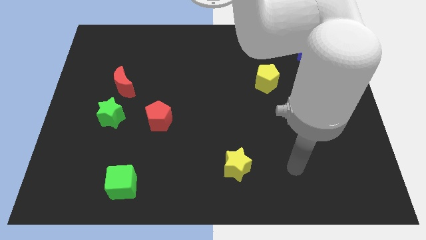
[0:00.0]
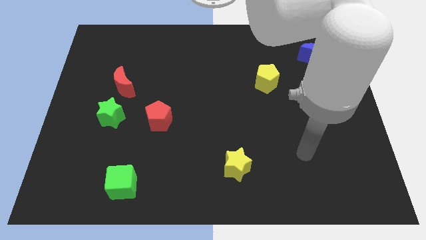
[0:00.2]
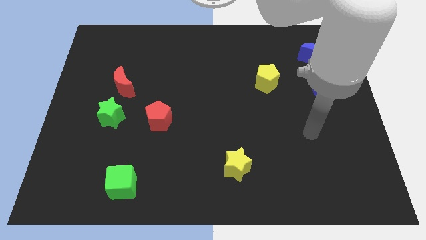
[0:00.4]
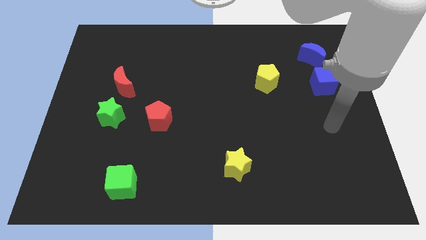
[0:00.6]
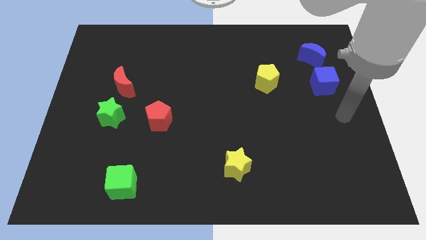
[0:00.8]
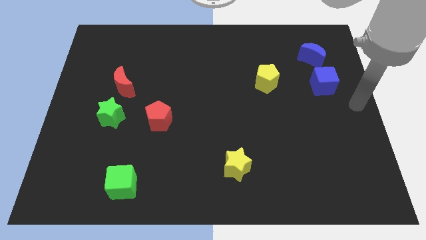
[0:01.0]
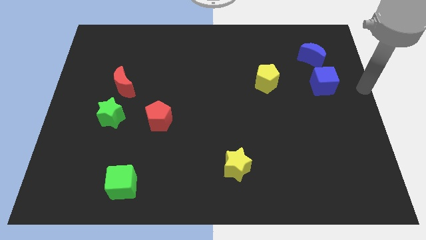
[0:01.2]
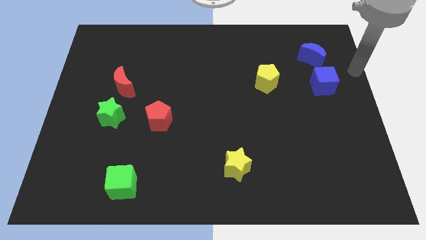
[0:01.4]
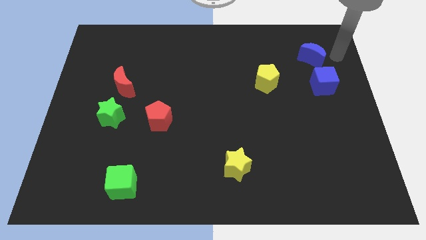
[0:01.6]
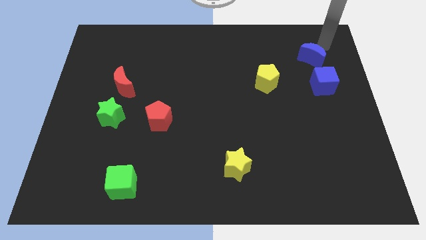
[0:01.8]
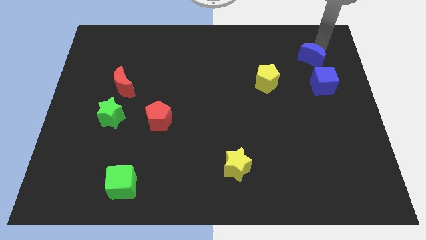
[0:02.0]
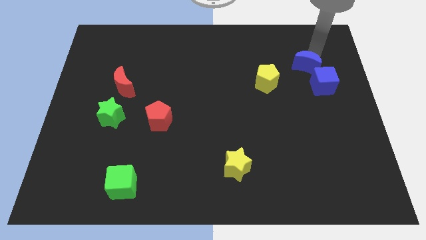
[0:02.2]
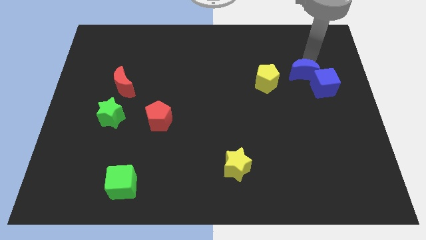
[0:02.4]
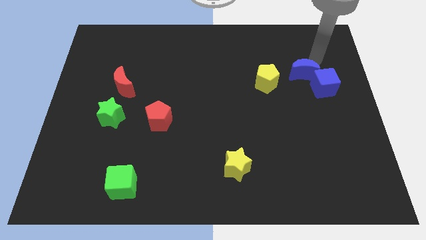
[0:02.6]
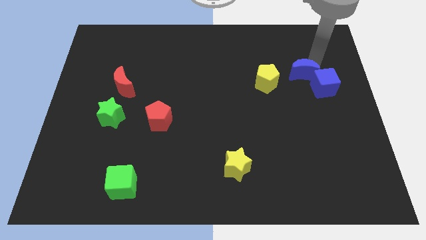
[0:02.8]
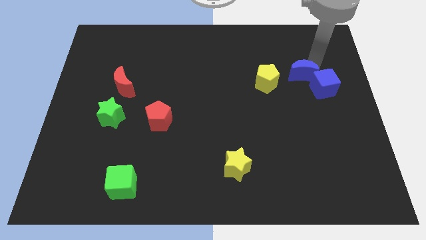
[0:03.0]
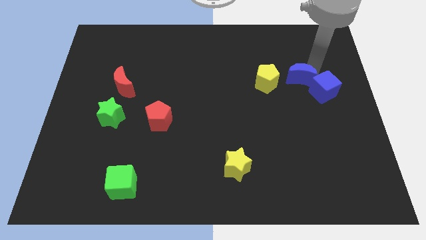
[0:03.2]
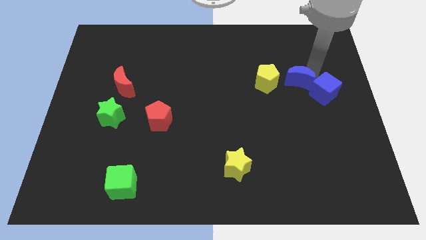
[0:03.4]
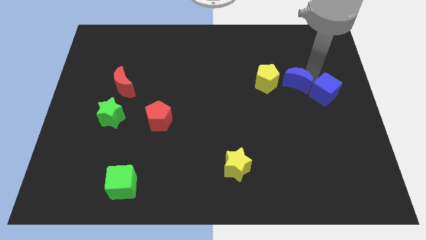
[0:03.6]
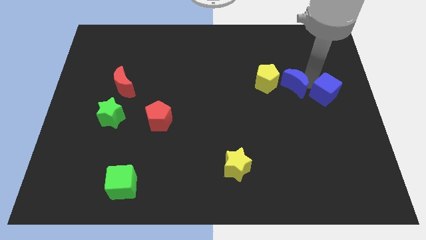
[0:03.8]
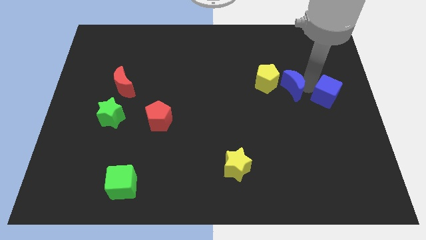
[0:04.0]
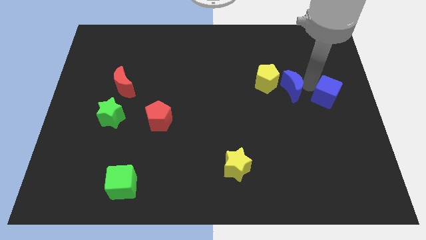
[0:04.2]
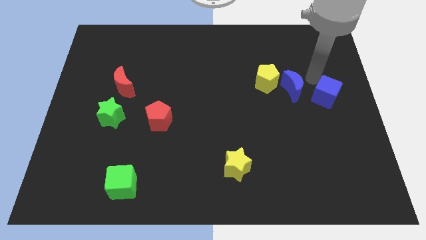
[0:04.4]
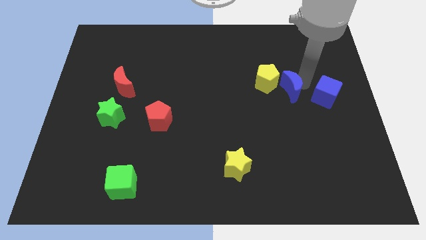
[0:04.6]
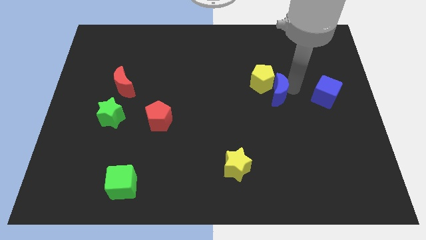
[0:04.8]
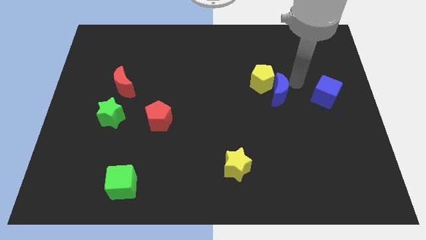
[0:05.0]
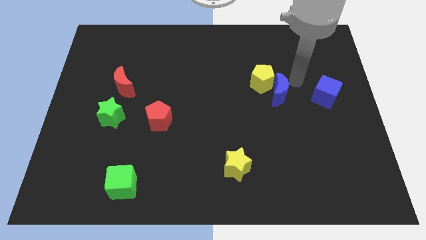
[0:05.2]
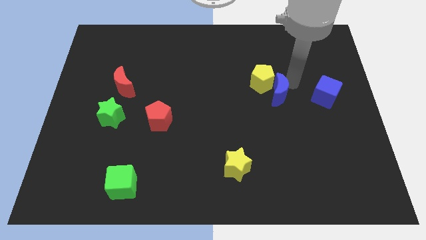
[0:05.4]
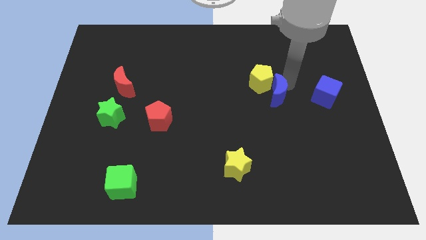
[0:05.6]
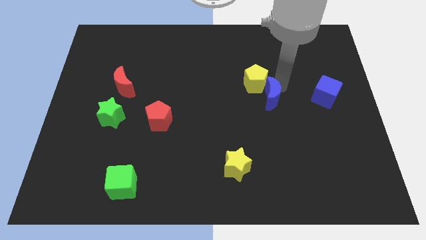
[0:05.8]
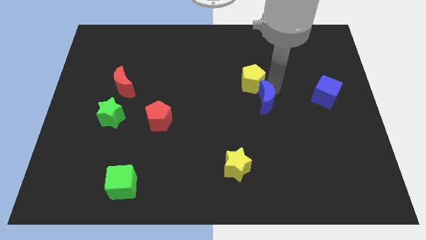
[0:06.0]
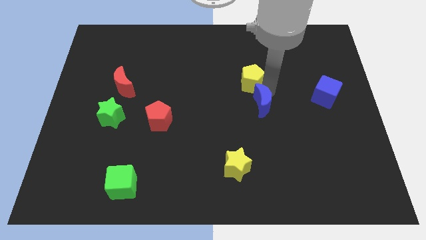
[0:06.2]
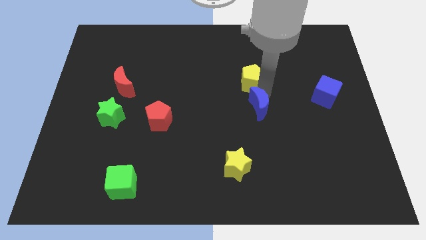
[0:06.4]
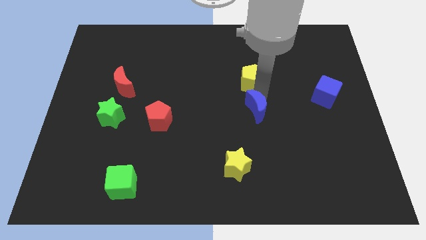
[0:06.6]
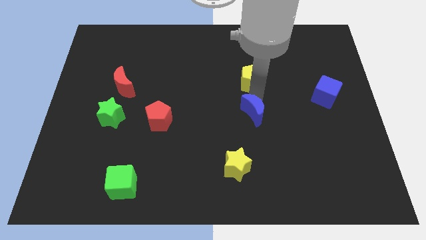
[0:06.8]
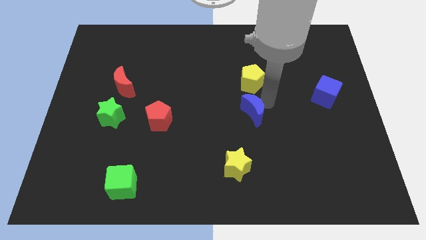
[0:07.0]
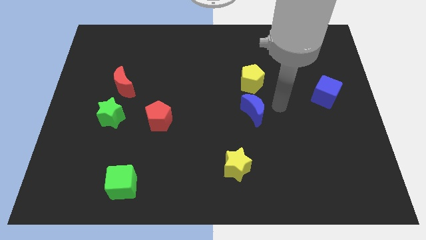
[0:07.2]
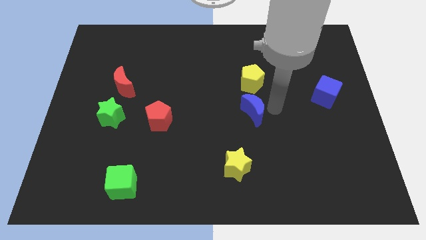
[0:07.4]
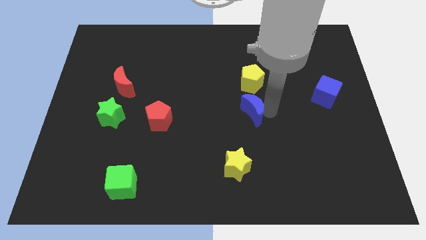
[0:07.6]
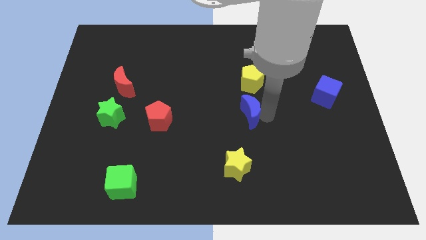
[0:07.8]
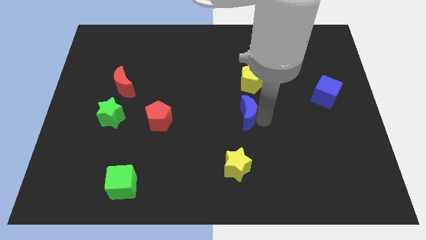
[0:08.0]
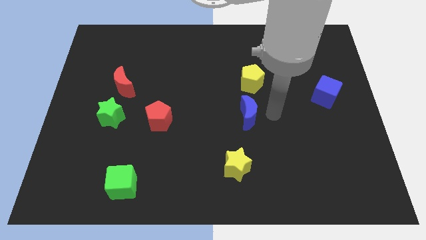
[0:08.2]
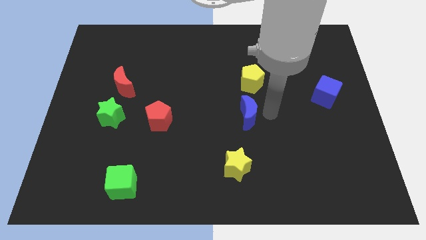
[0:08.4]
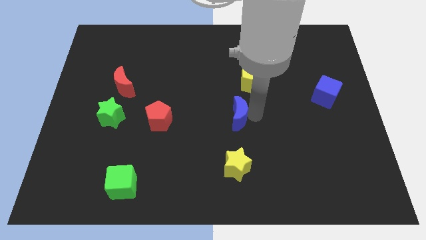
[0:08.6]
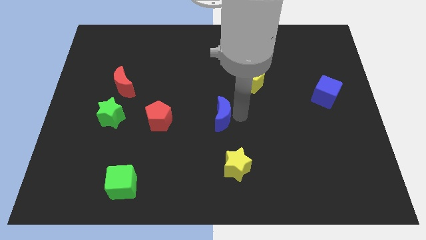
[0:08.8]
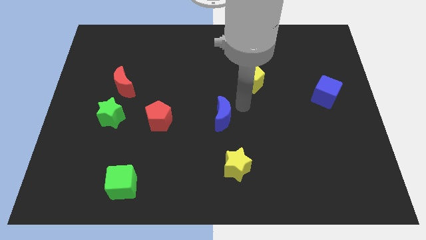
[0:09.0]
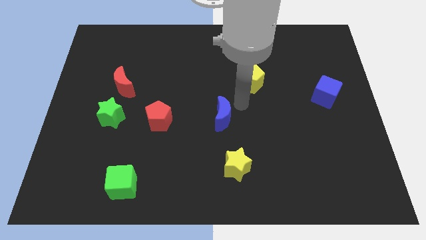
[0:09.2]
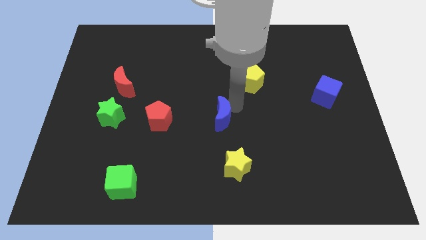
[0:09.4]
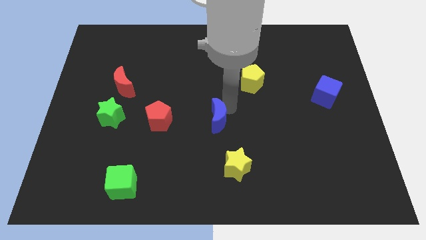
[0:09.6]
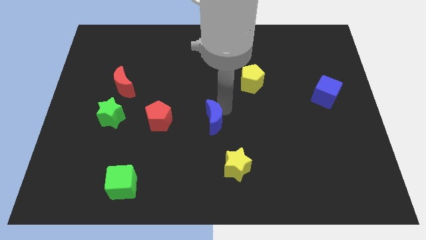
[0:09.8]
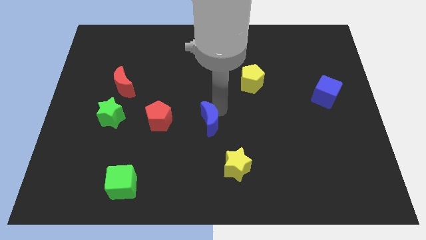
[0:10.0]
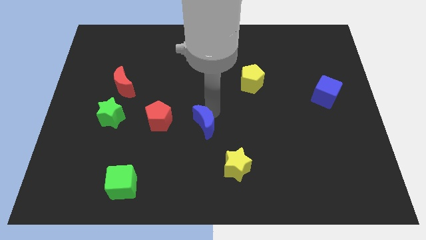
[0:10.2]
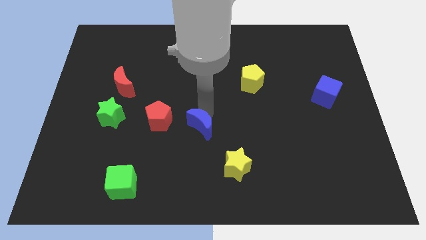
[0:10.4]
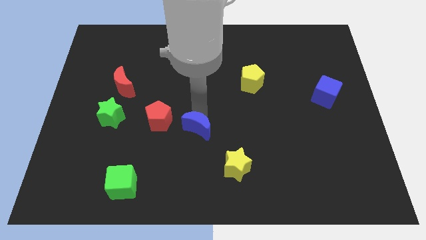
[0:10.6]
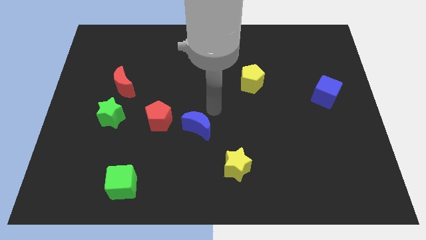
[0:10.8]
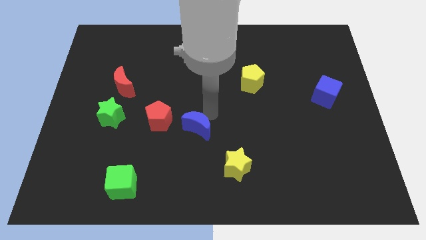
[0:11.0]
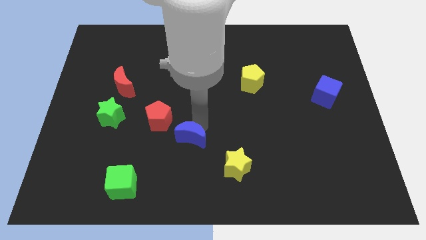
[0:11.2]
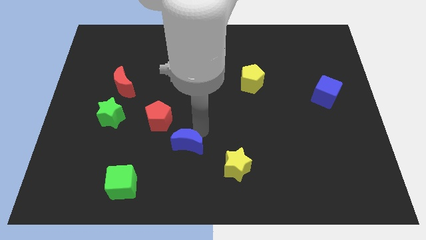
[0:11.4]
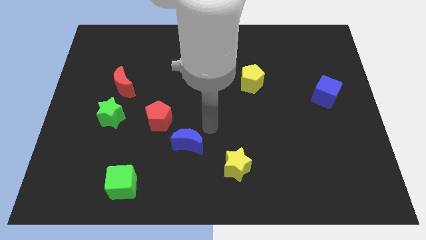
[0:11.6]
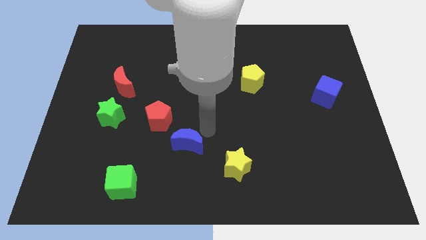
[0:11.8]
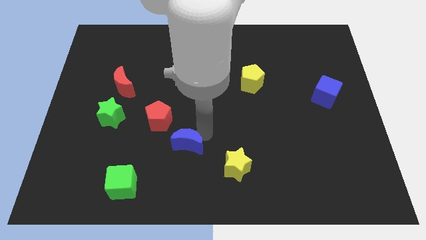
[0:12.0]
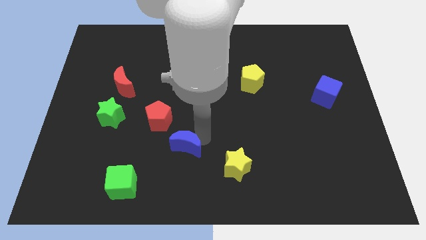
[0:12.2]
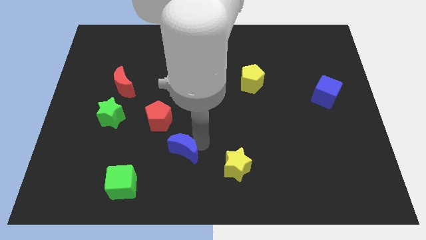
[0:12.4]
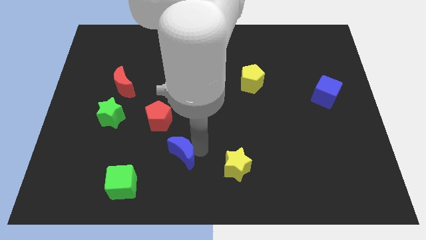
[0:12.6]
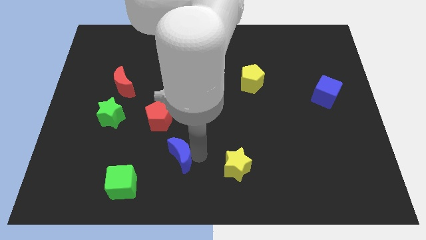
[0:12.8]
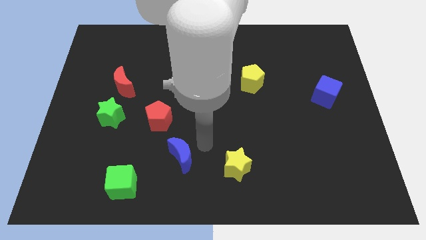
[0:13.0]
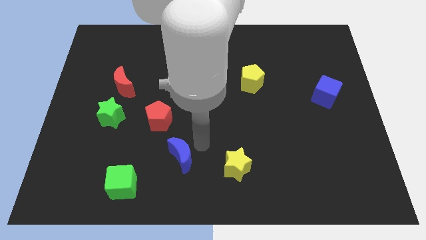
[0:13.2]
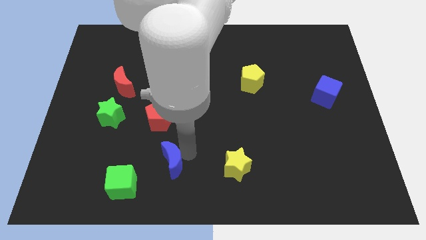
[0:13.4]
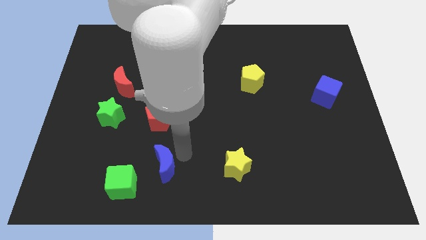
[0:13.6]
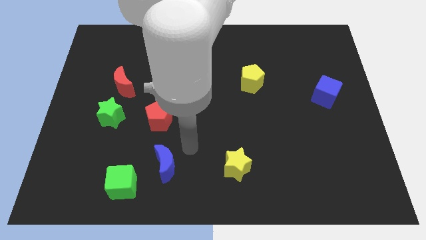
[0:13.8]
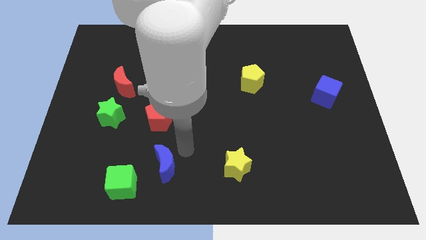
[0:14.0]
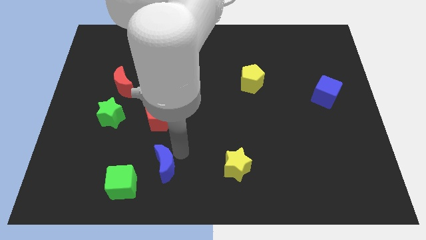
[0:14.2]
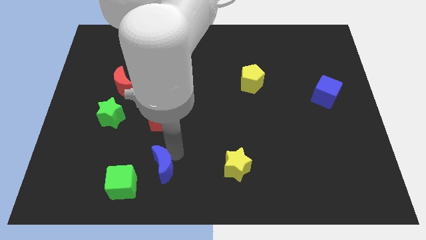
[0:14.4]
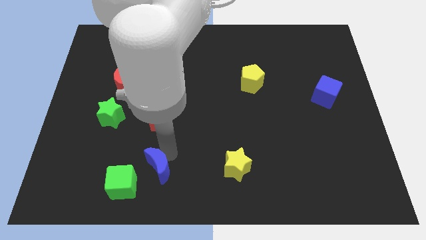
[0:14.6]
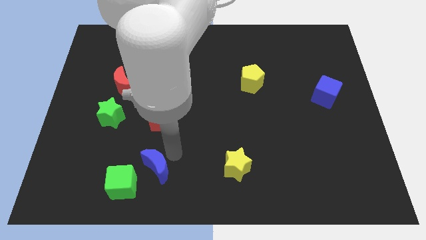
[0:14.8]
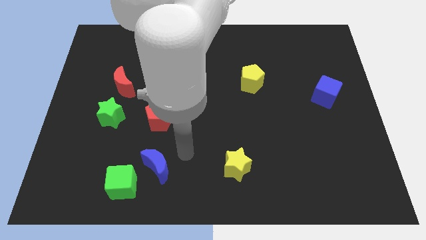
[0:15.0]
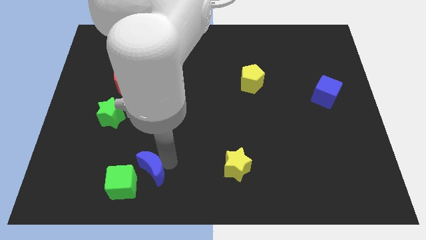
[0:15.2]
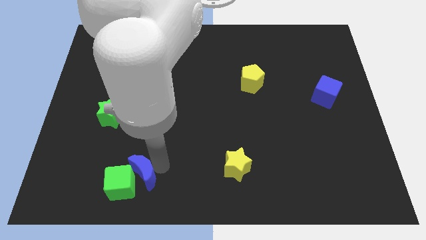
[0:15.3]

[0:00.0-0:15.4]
move the blue moon towards the green cube

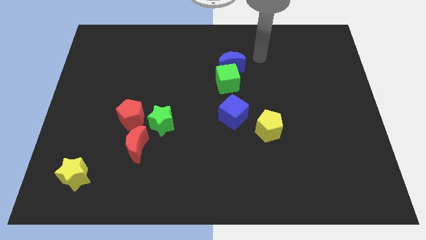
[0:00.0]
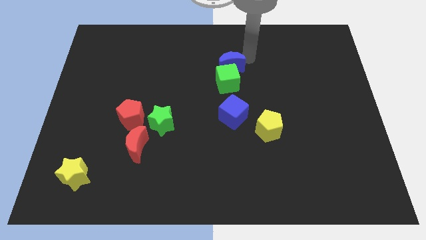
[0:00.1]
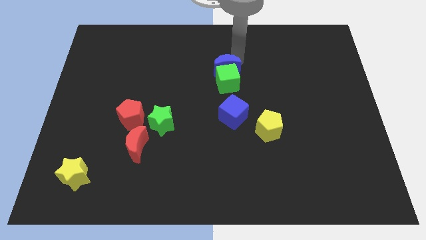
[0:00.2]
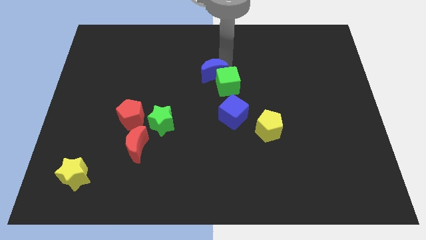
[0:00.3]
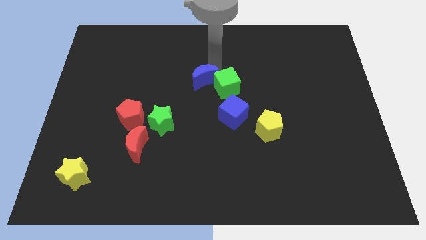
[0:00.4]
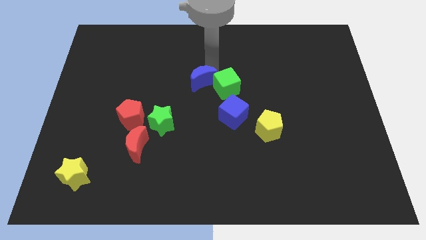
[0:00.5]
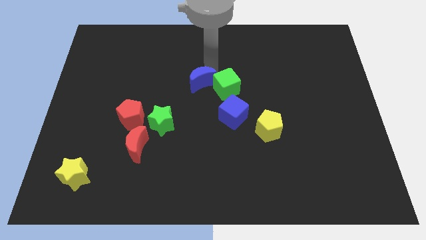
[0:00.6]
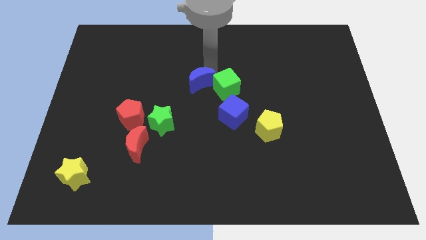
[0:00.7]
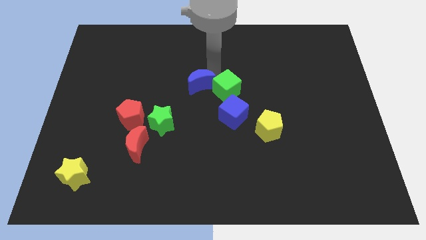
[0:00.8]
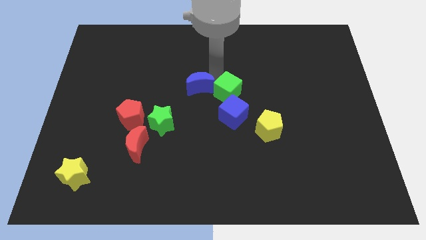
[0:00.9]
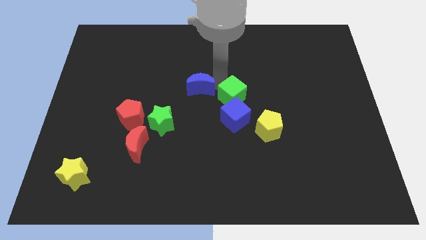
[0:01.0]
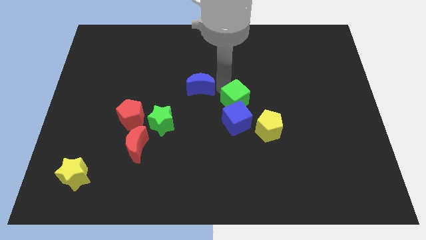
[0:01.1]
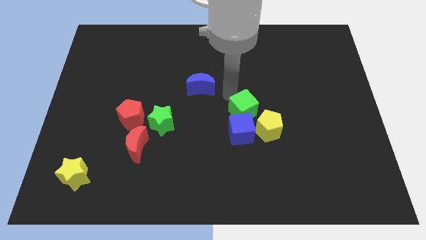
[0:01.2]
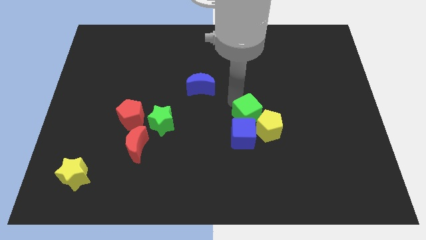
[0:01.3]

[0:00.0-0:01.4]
slide the green cube to the yellow pentagon
